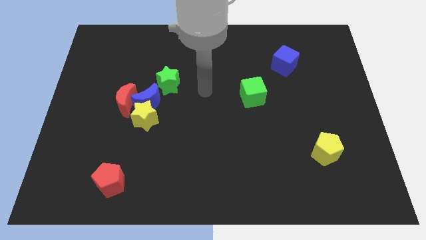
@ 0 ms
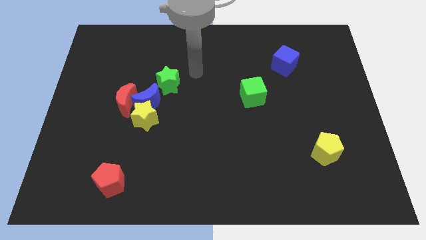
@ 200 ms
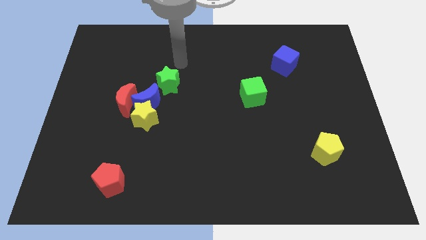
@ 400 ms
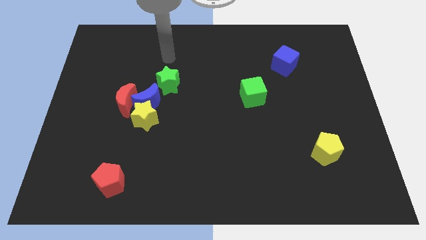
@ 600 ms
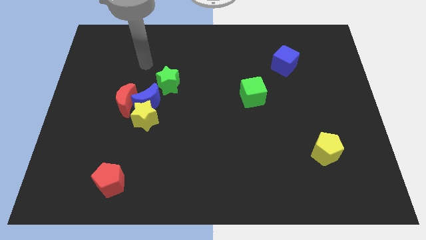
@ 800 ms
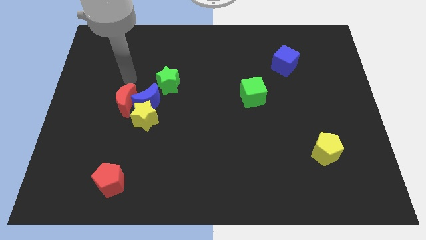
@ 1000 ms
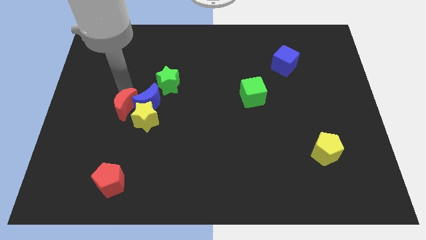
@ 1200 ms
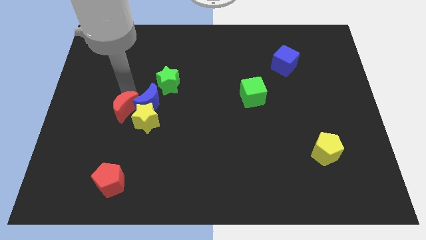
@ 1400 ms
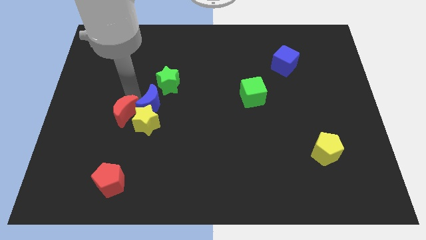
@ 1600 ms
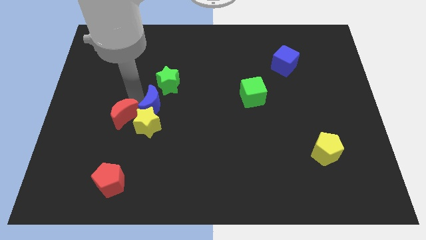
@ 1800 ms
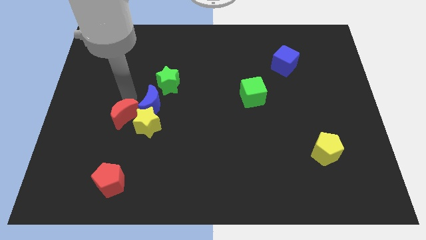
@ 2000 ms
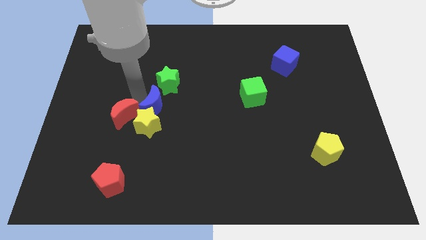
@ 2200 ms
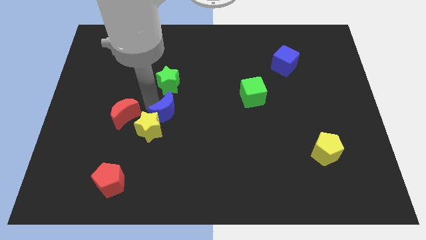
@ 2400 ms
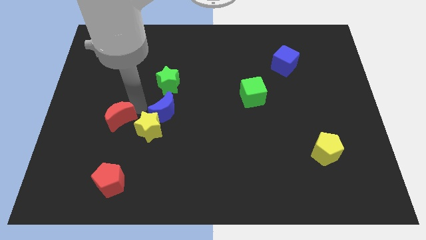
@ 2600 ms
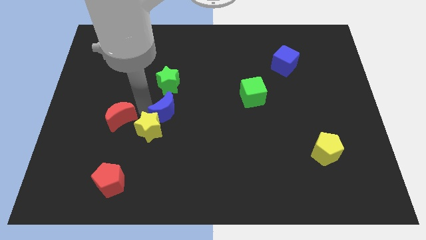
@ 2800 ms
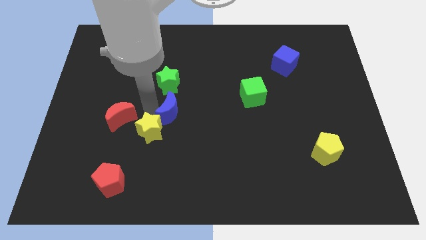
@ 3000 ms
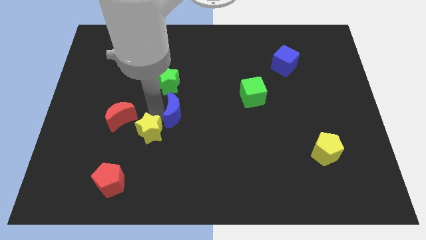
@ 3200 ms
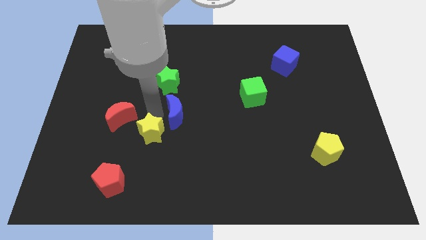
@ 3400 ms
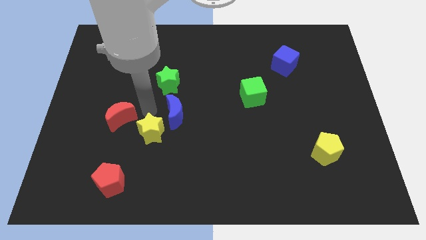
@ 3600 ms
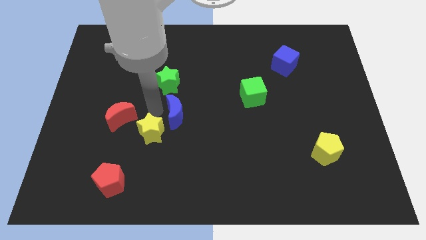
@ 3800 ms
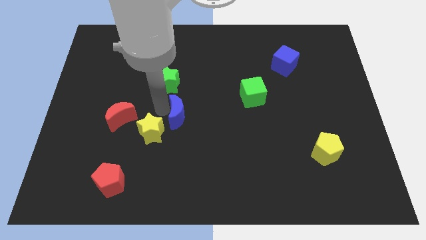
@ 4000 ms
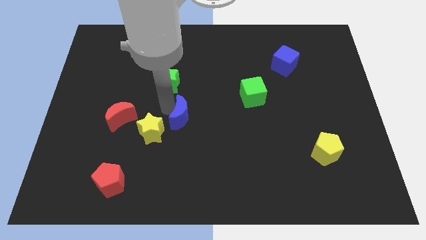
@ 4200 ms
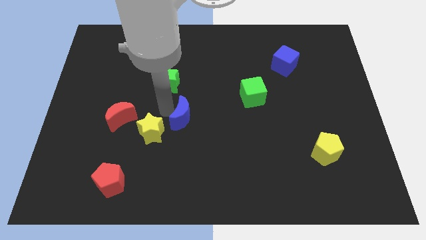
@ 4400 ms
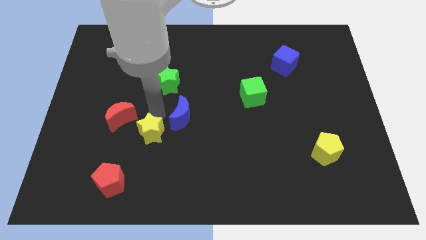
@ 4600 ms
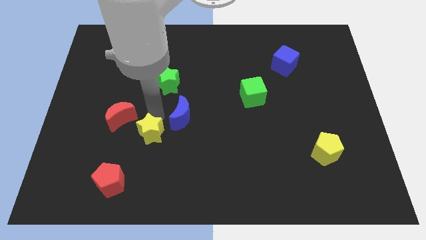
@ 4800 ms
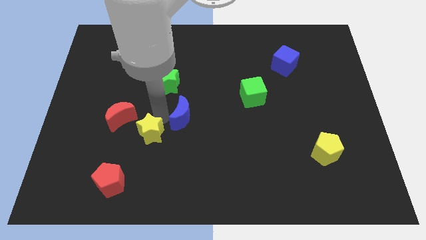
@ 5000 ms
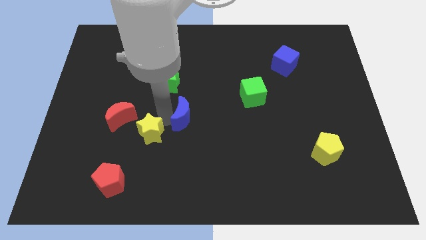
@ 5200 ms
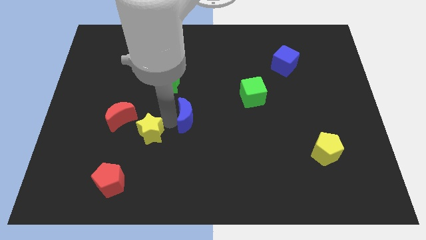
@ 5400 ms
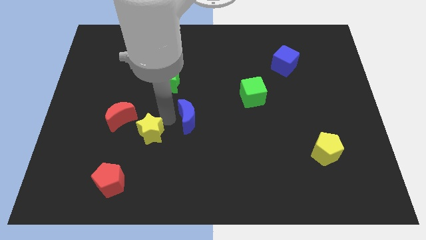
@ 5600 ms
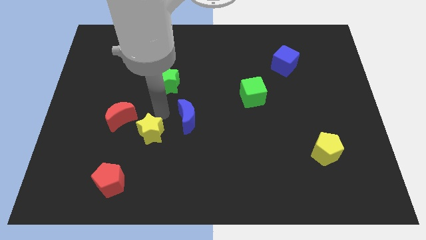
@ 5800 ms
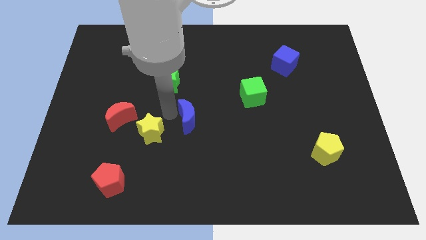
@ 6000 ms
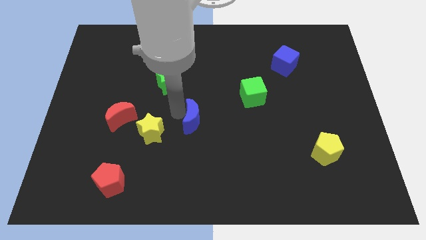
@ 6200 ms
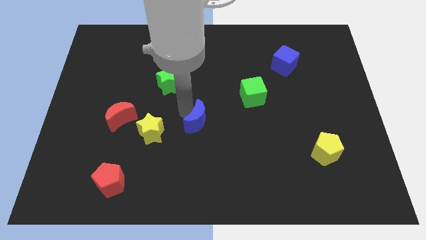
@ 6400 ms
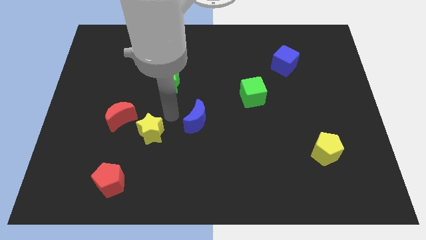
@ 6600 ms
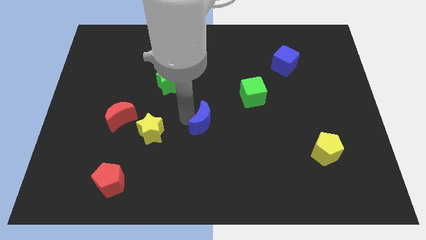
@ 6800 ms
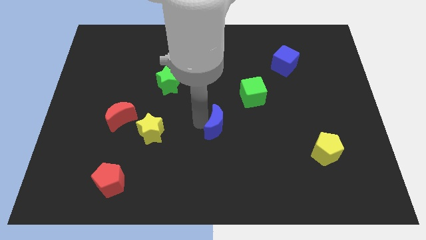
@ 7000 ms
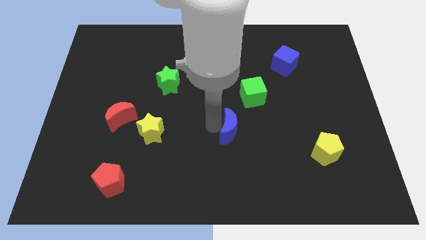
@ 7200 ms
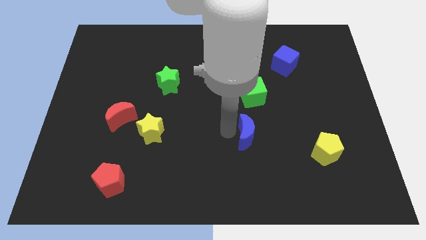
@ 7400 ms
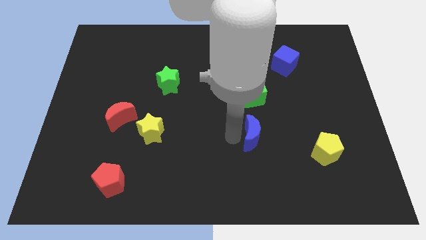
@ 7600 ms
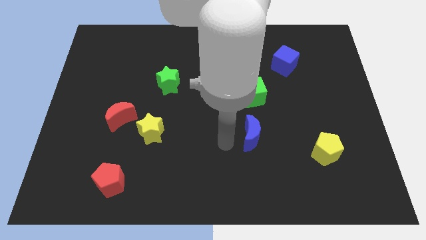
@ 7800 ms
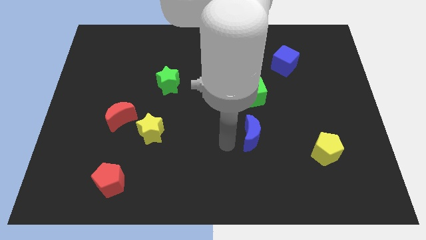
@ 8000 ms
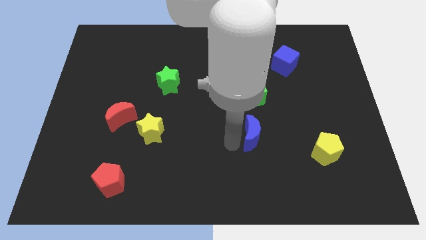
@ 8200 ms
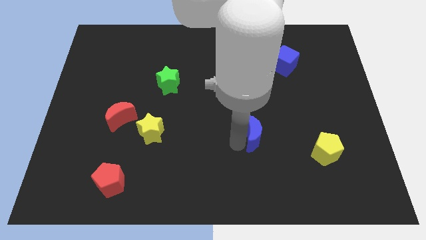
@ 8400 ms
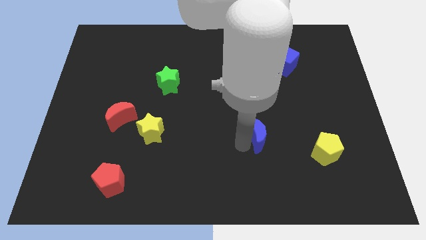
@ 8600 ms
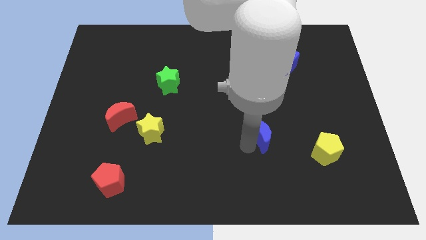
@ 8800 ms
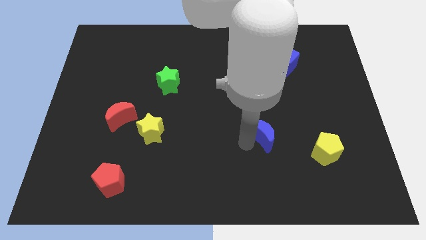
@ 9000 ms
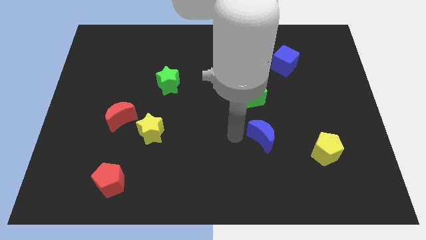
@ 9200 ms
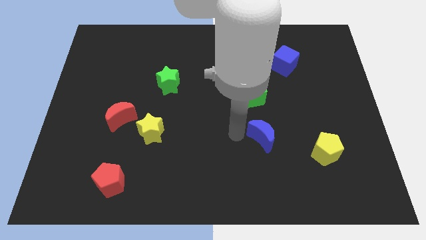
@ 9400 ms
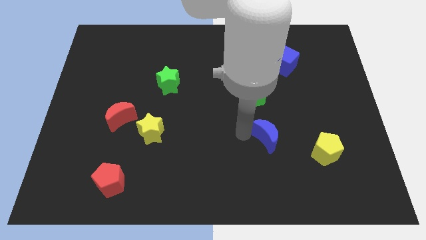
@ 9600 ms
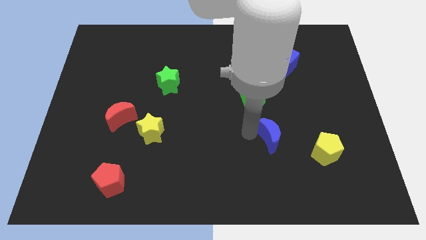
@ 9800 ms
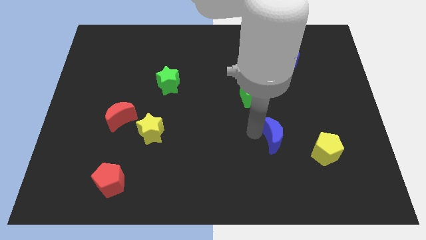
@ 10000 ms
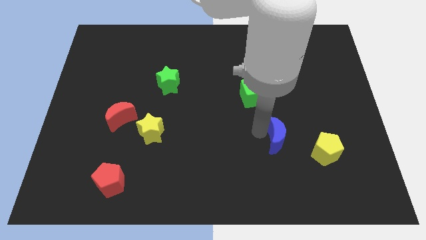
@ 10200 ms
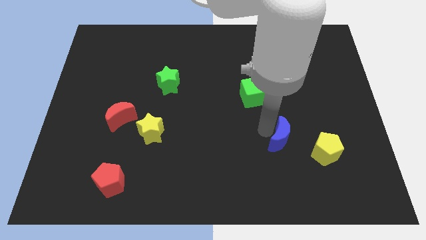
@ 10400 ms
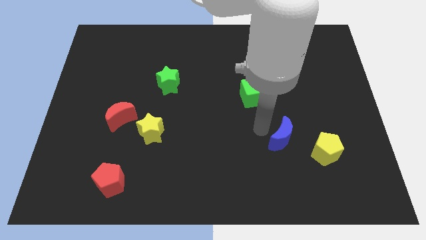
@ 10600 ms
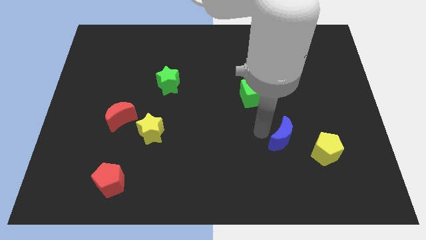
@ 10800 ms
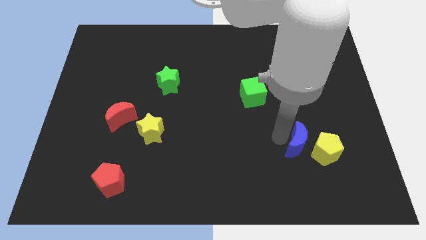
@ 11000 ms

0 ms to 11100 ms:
push the blue moon close to the yellow pentagon

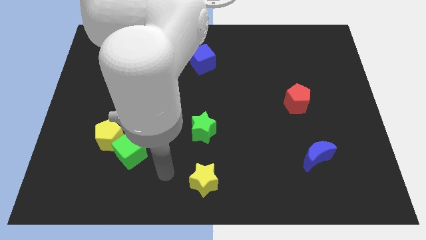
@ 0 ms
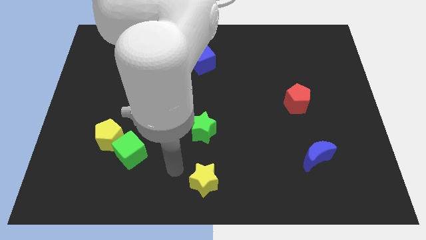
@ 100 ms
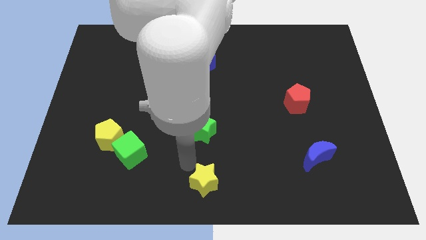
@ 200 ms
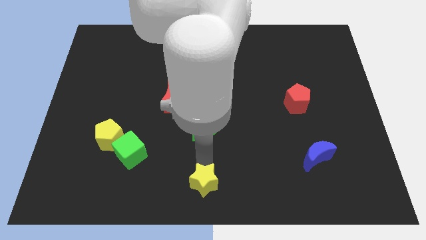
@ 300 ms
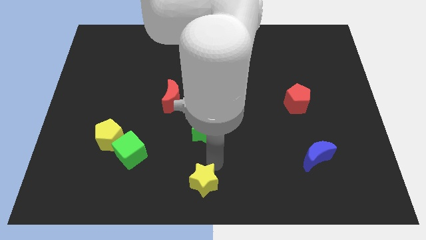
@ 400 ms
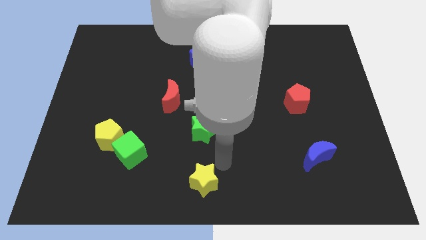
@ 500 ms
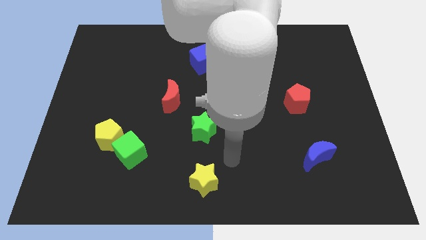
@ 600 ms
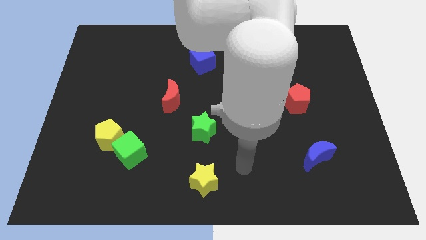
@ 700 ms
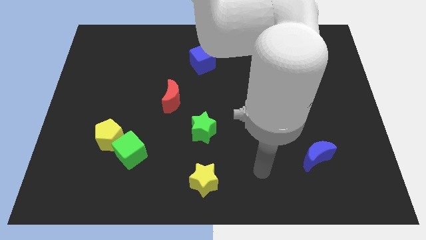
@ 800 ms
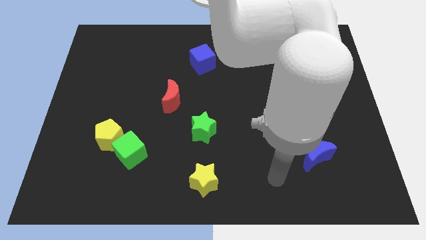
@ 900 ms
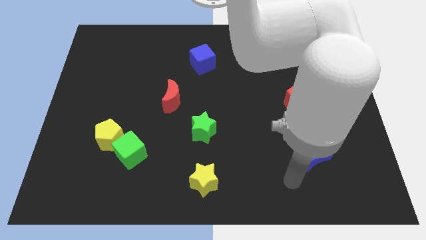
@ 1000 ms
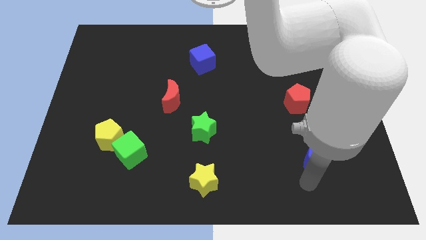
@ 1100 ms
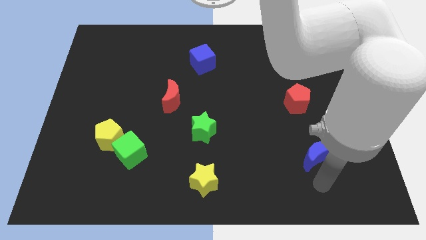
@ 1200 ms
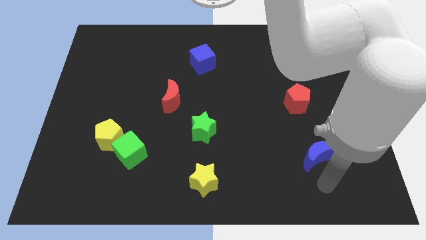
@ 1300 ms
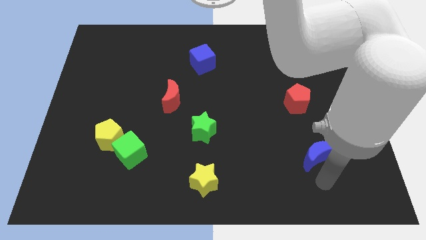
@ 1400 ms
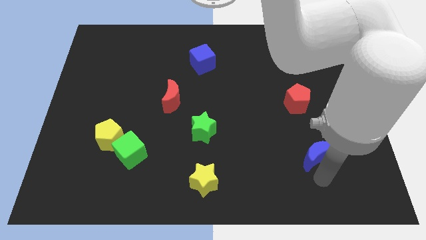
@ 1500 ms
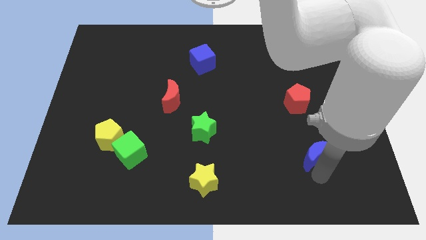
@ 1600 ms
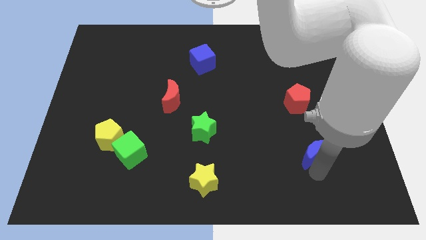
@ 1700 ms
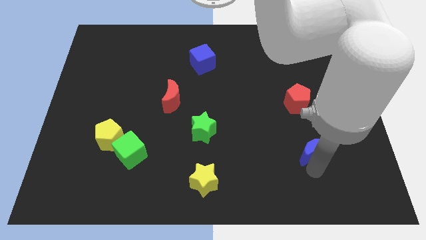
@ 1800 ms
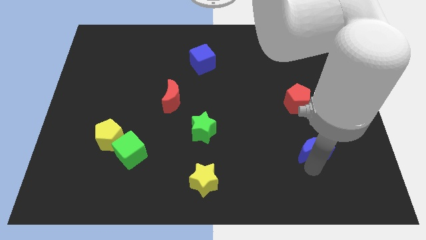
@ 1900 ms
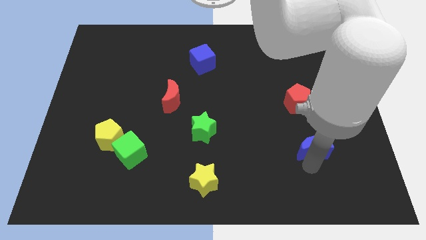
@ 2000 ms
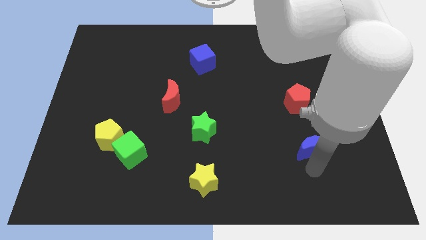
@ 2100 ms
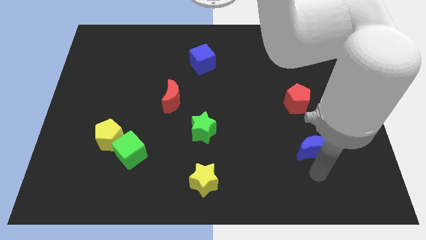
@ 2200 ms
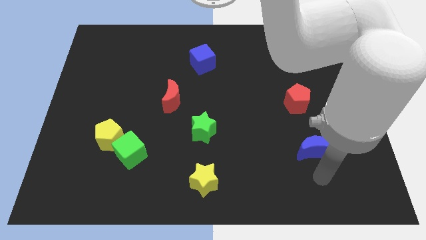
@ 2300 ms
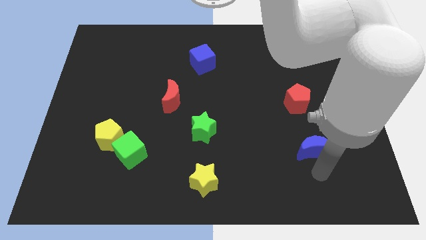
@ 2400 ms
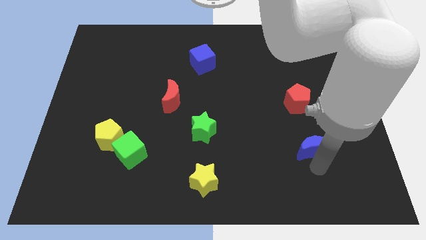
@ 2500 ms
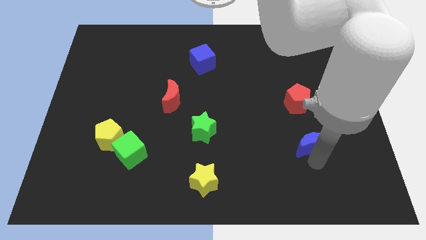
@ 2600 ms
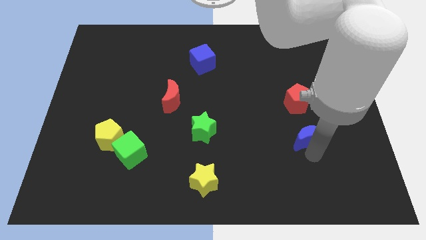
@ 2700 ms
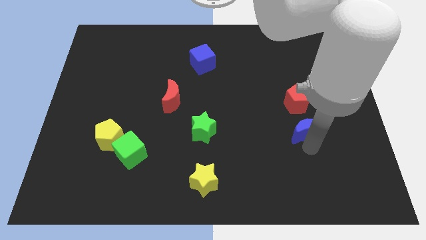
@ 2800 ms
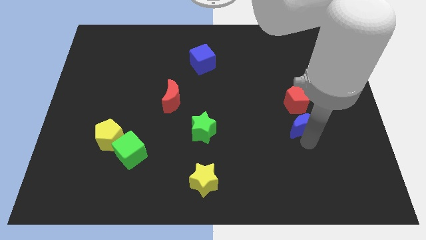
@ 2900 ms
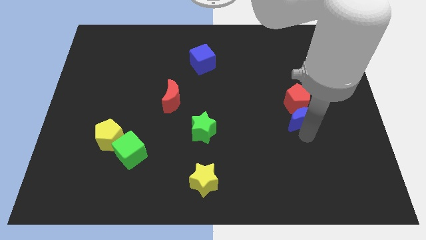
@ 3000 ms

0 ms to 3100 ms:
move the blue moon next to the red pentagon
